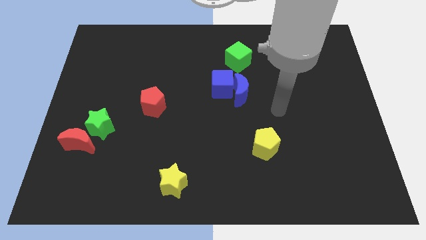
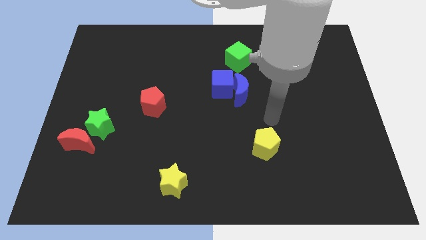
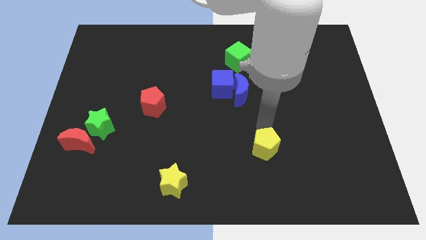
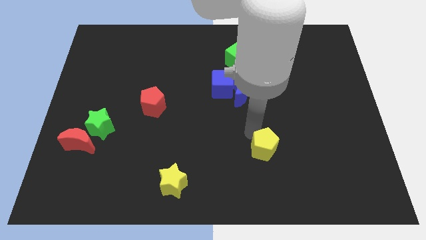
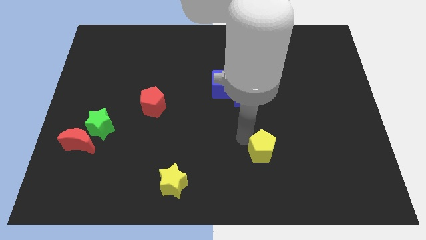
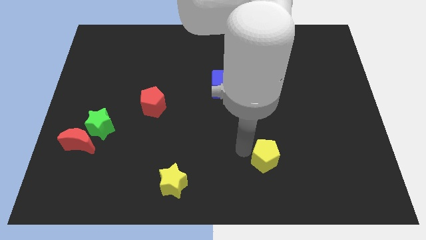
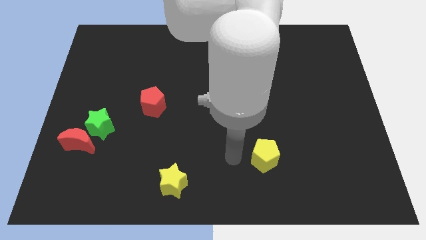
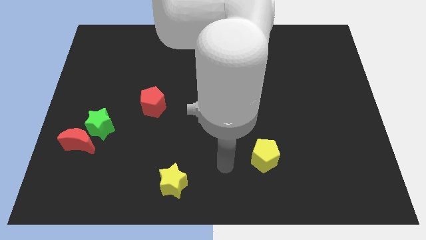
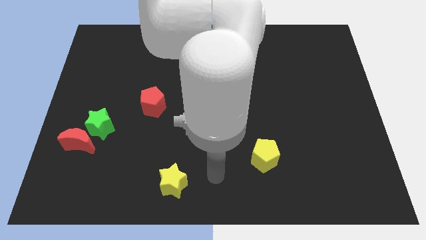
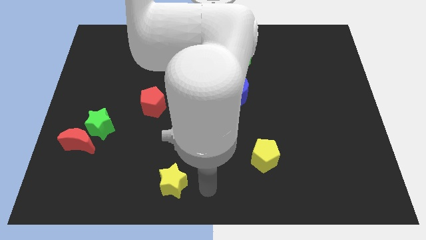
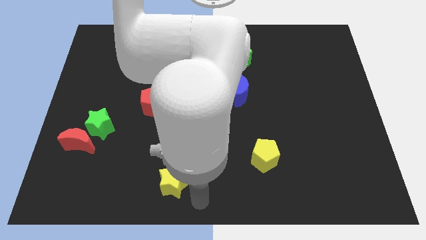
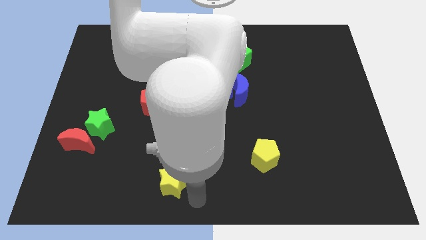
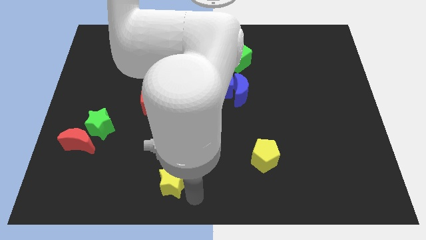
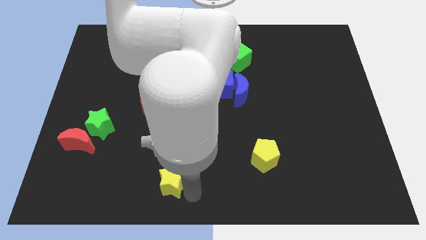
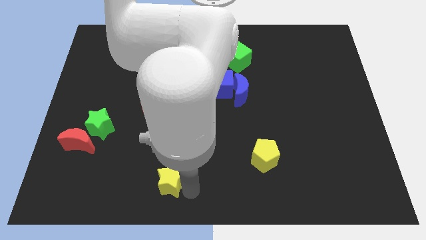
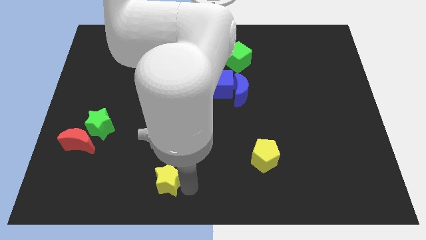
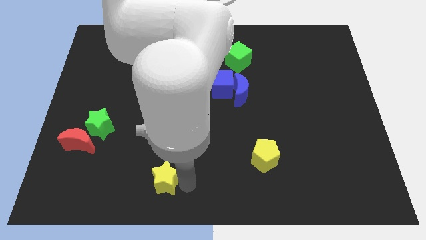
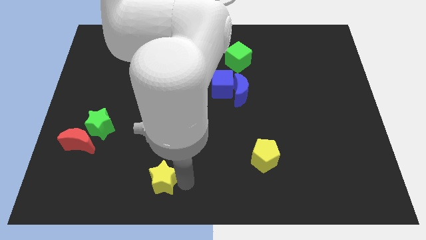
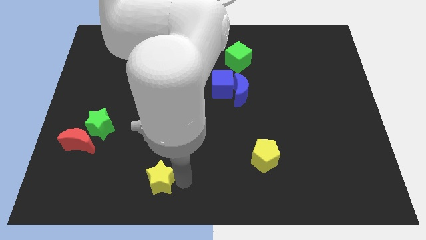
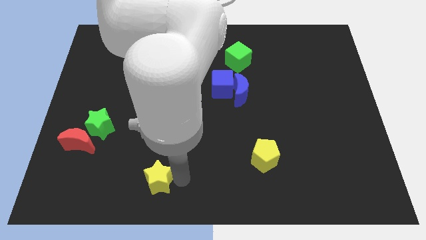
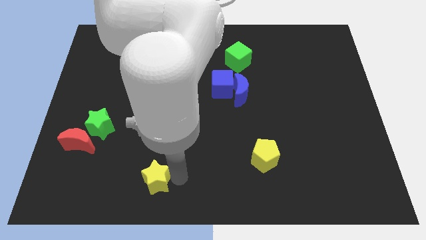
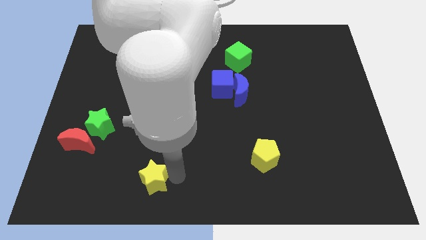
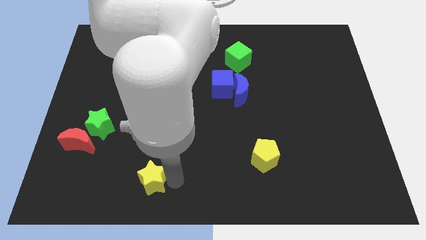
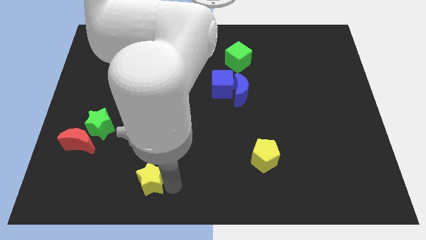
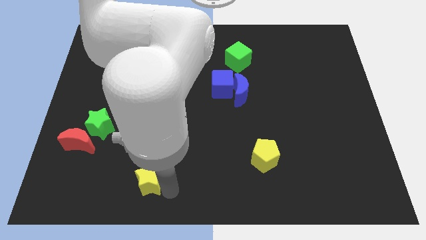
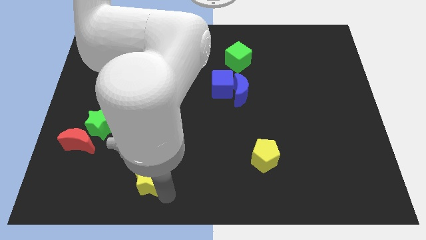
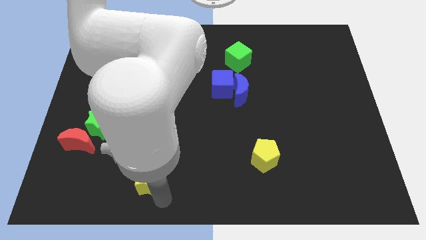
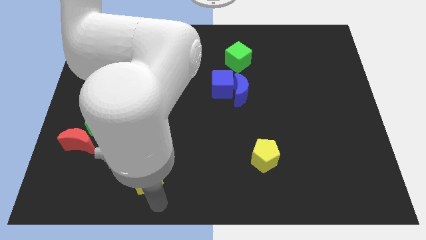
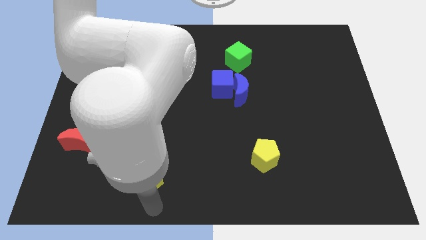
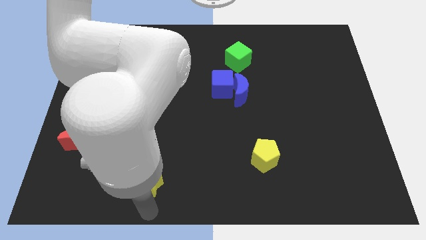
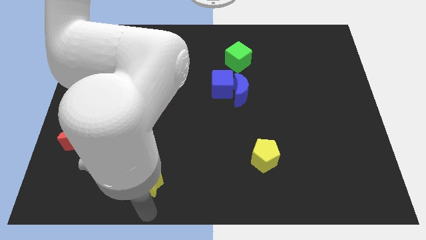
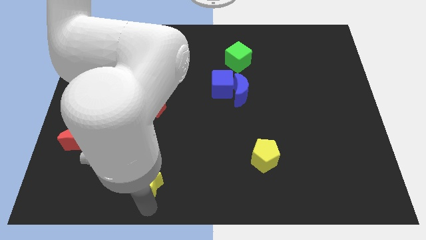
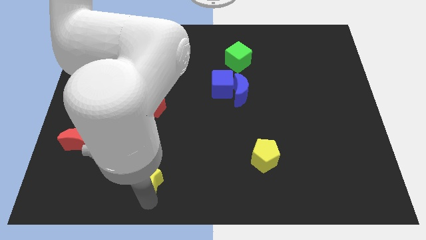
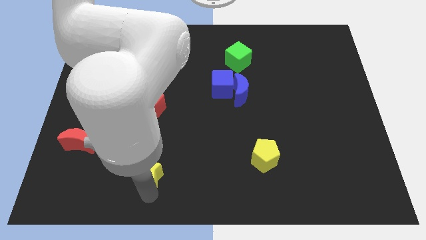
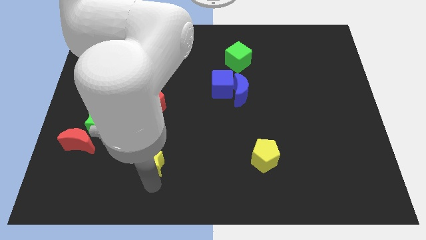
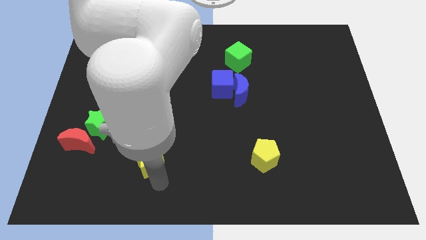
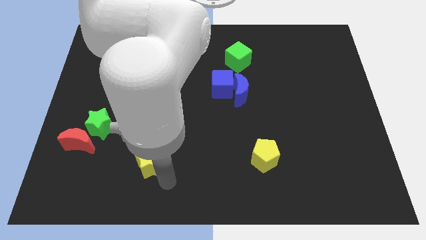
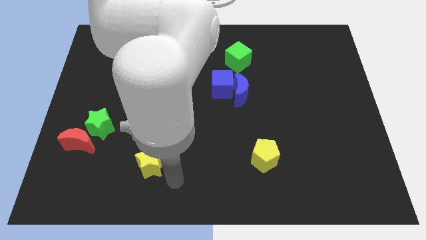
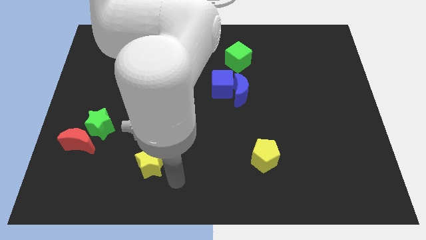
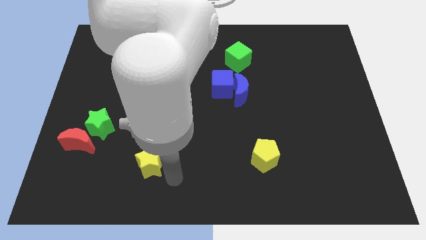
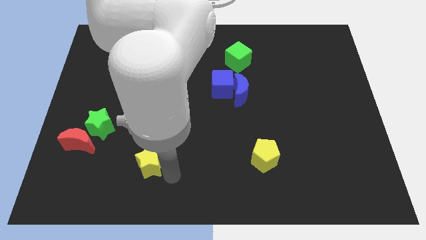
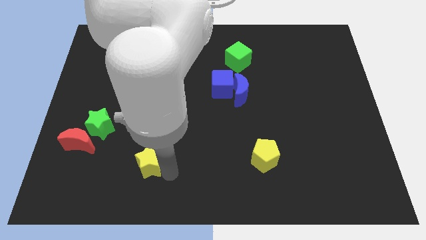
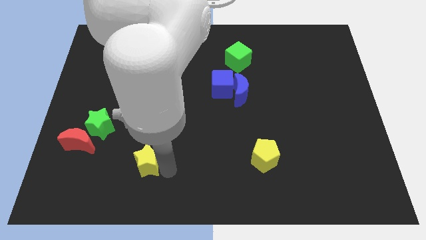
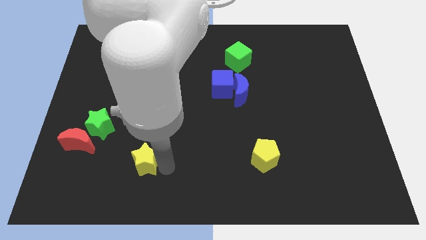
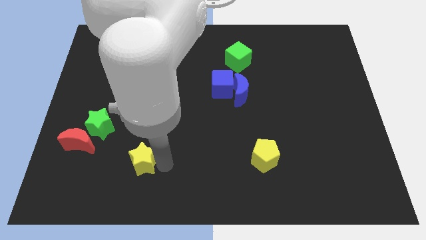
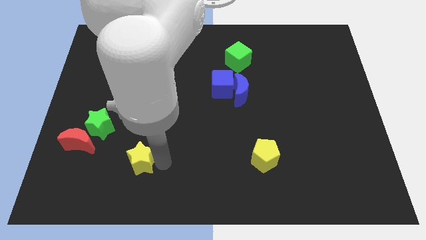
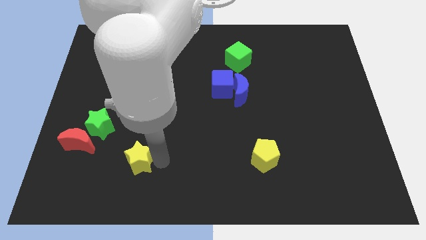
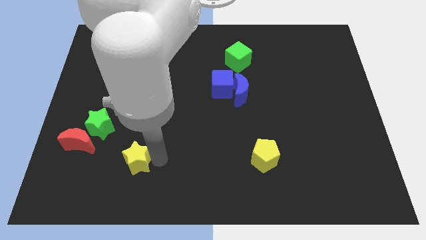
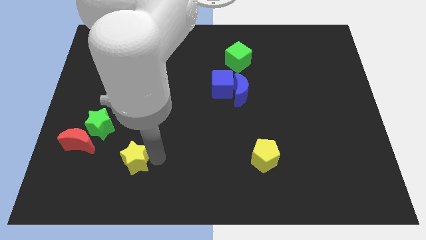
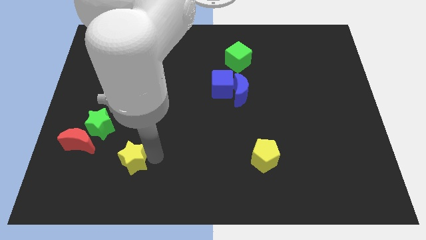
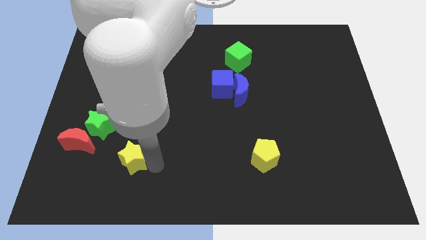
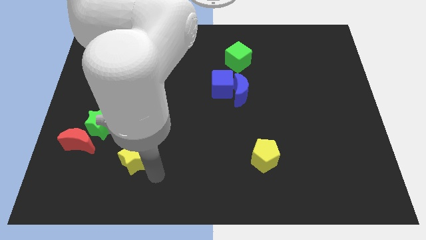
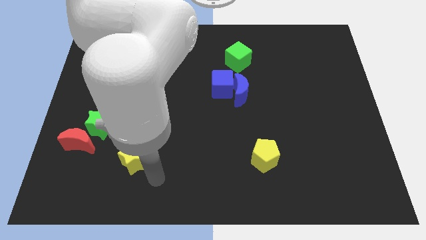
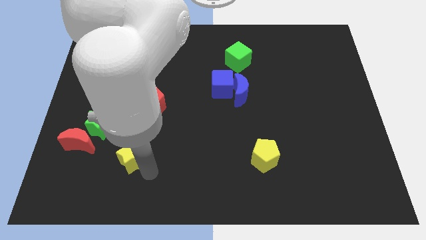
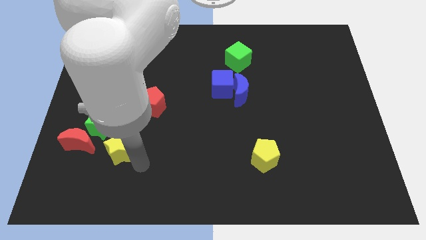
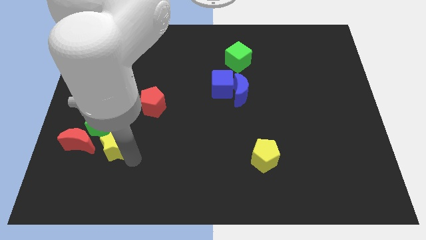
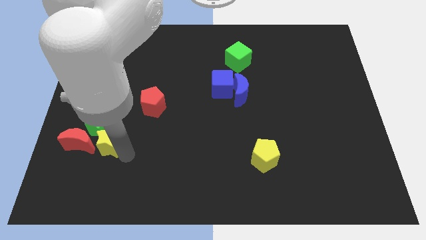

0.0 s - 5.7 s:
move the yellow star to the green star
